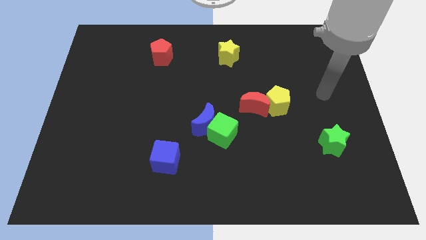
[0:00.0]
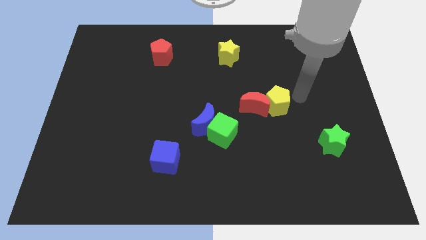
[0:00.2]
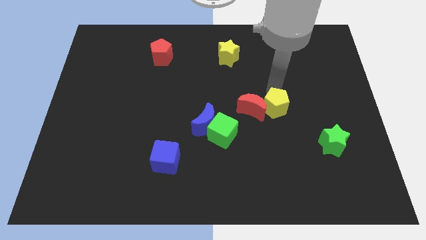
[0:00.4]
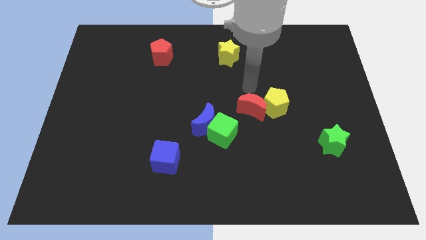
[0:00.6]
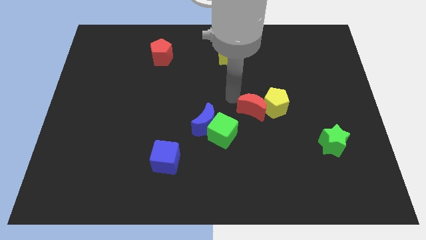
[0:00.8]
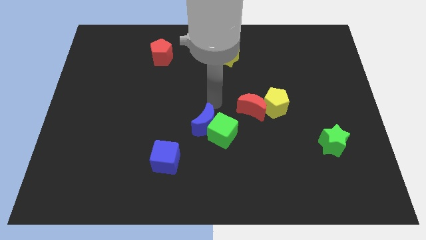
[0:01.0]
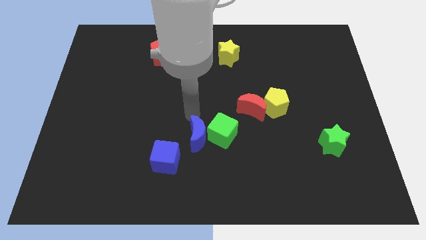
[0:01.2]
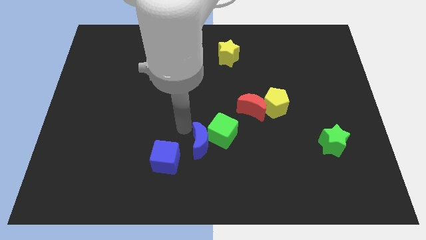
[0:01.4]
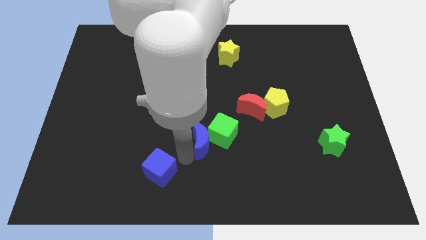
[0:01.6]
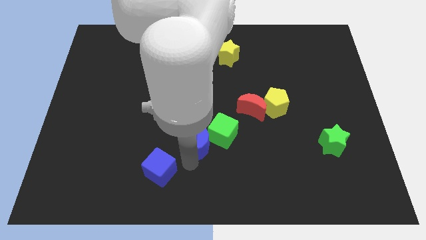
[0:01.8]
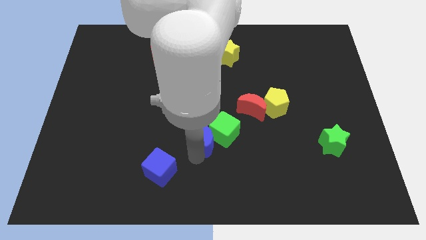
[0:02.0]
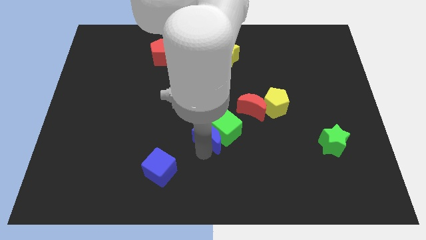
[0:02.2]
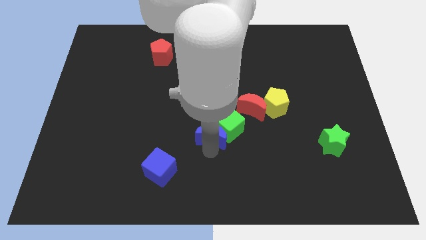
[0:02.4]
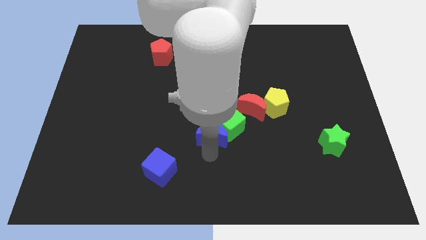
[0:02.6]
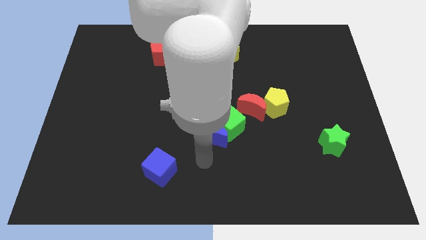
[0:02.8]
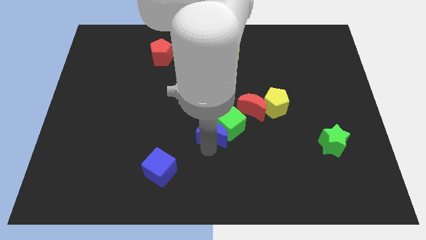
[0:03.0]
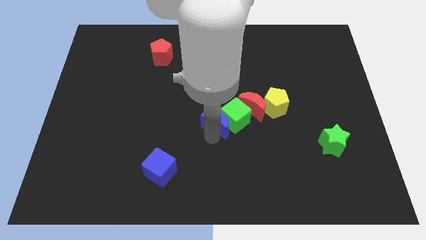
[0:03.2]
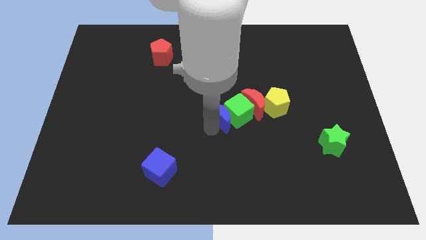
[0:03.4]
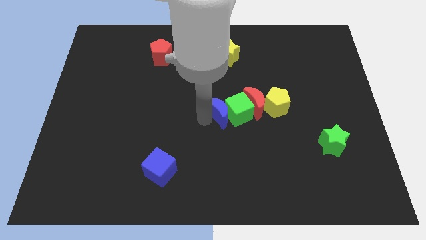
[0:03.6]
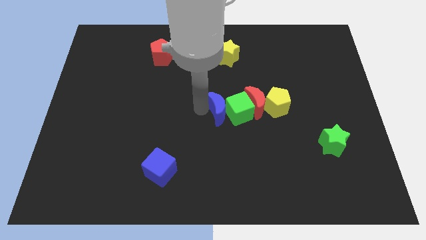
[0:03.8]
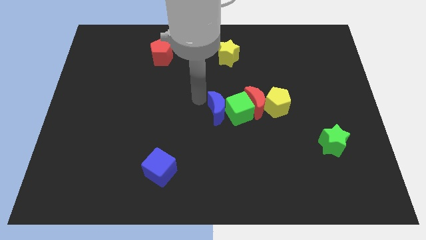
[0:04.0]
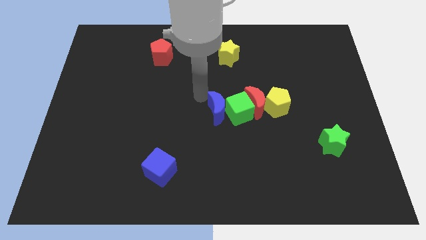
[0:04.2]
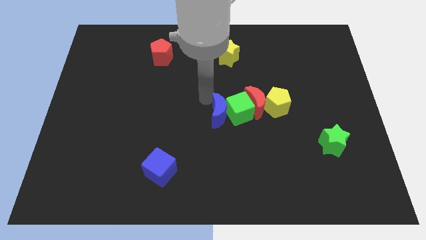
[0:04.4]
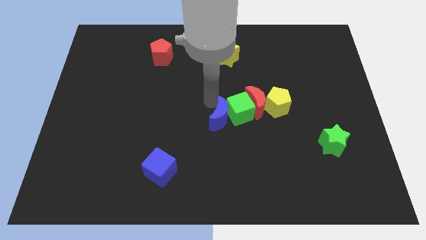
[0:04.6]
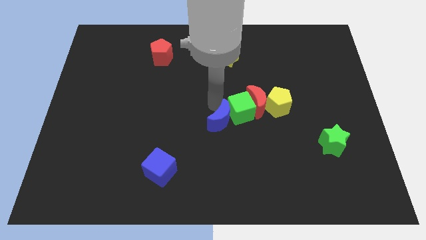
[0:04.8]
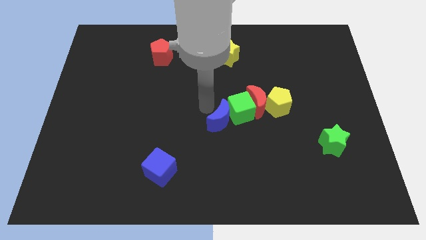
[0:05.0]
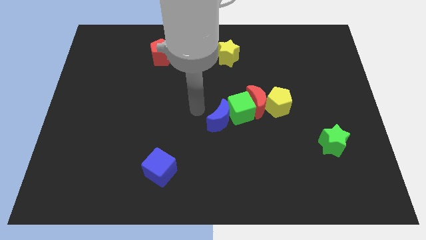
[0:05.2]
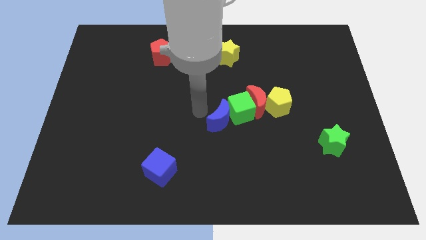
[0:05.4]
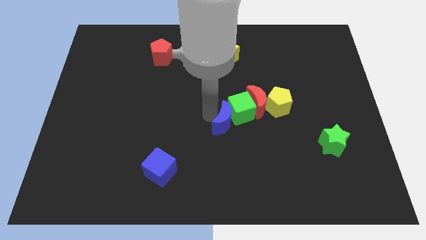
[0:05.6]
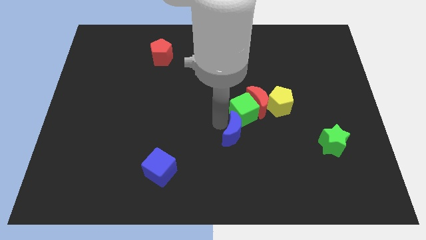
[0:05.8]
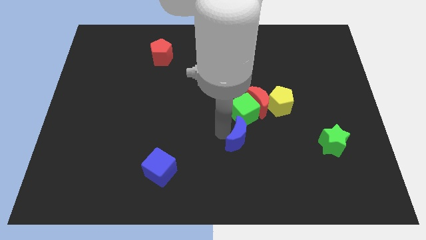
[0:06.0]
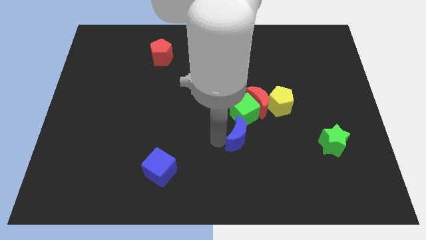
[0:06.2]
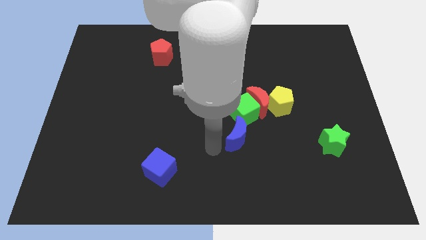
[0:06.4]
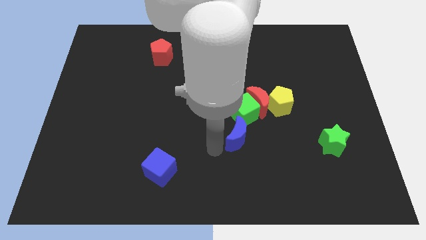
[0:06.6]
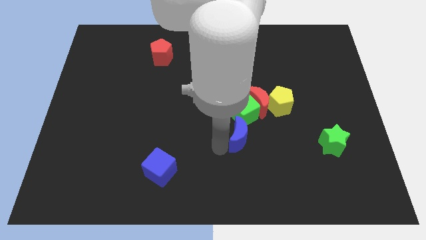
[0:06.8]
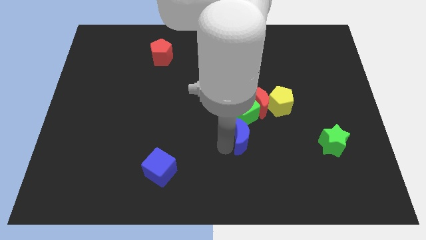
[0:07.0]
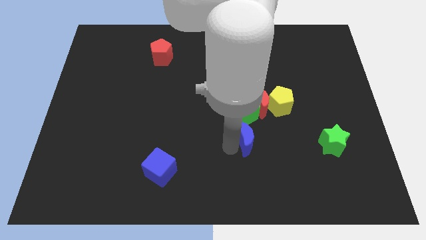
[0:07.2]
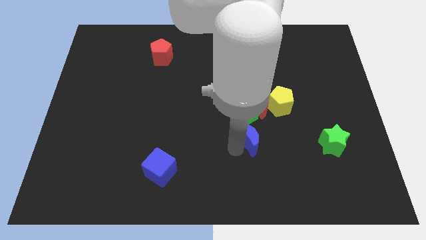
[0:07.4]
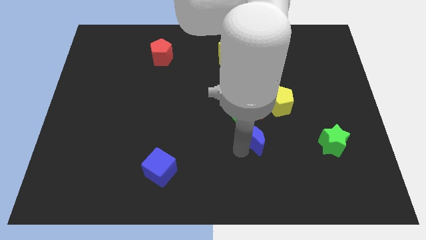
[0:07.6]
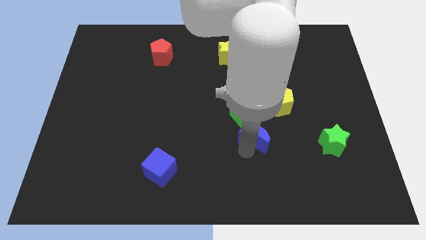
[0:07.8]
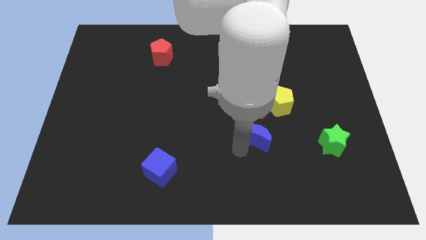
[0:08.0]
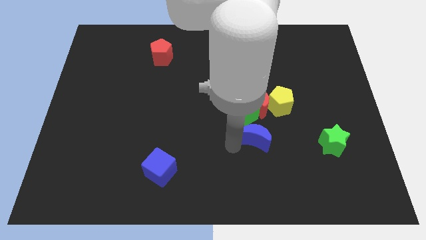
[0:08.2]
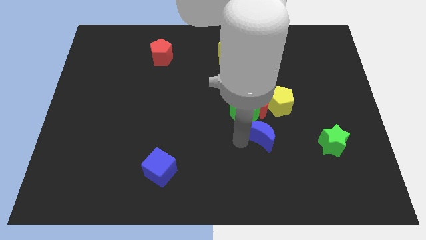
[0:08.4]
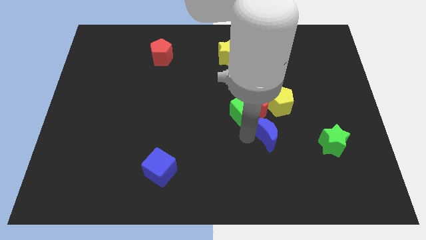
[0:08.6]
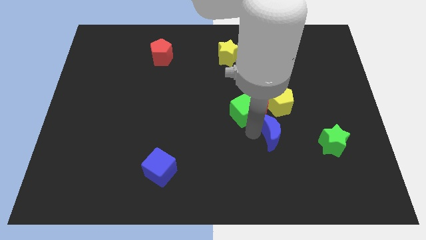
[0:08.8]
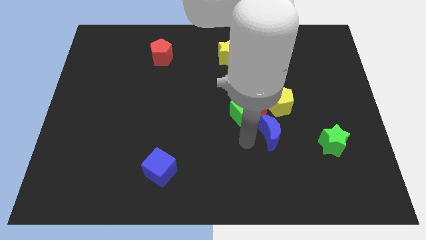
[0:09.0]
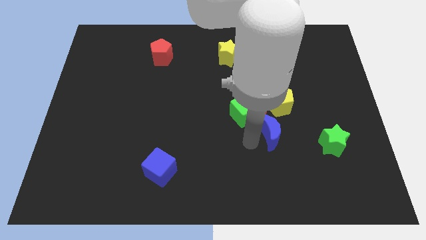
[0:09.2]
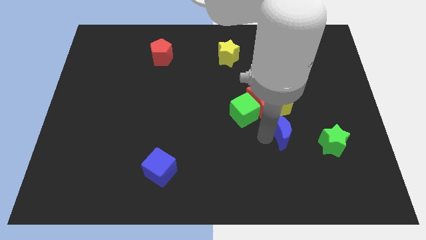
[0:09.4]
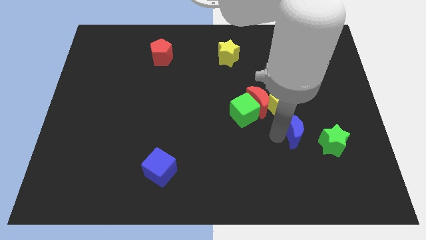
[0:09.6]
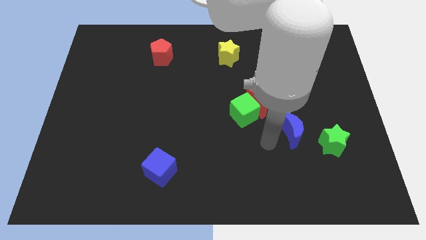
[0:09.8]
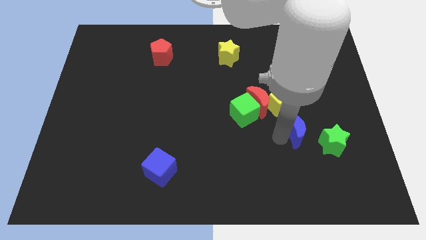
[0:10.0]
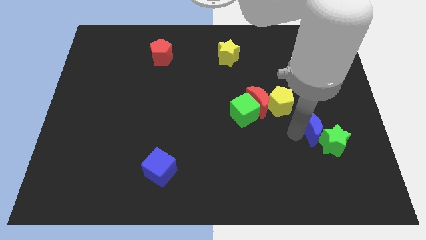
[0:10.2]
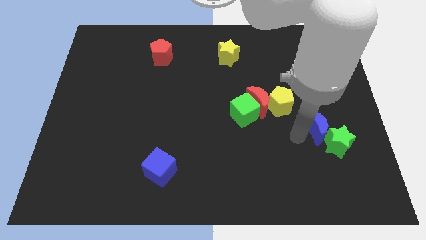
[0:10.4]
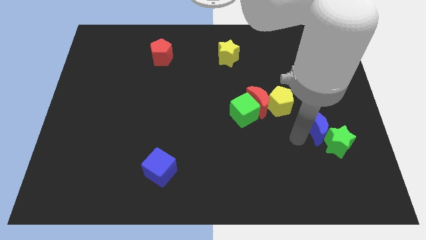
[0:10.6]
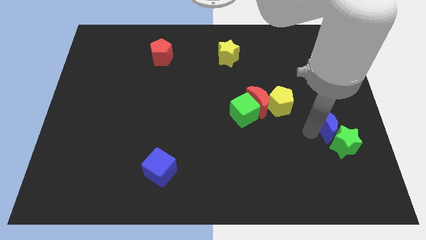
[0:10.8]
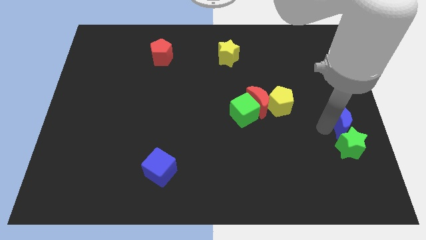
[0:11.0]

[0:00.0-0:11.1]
move the blue moon to the right side of the board
